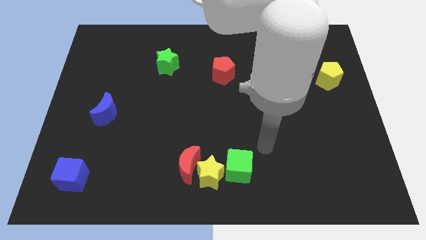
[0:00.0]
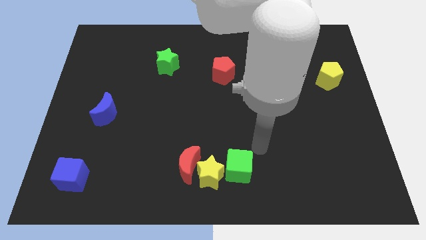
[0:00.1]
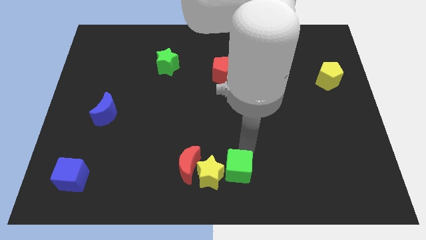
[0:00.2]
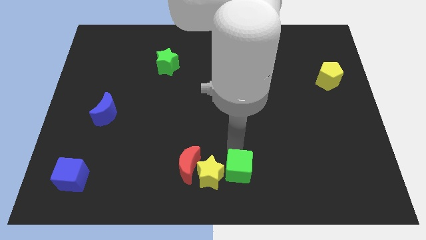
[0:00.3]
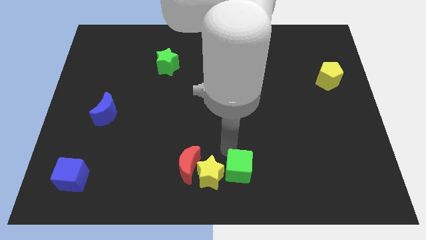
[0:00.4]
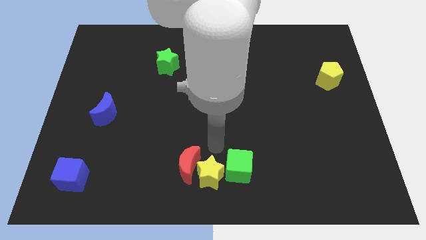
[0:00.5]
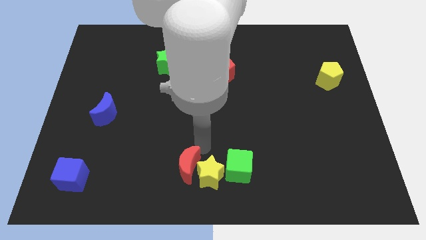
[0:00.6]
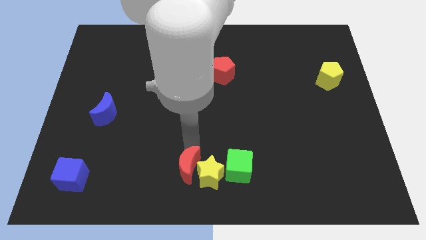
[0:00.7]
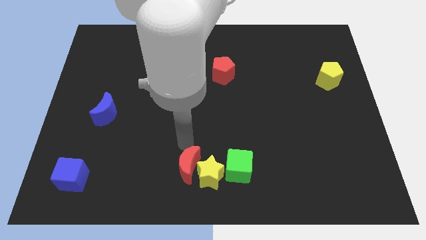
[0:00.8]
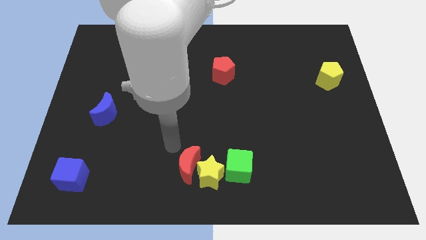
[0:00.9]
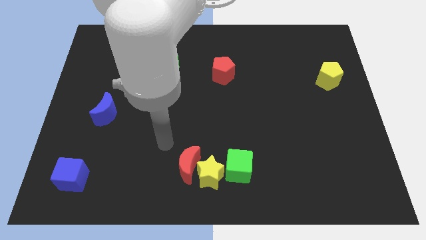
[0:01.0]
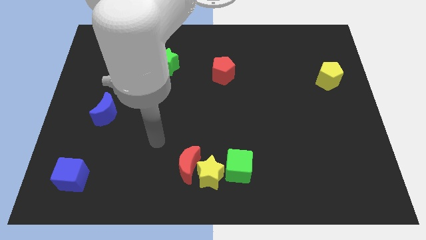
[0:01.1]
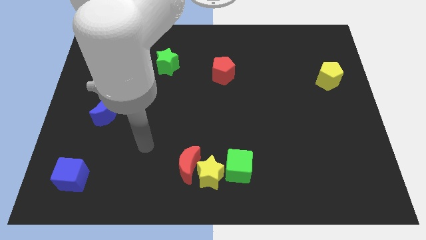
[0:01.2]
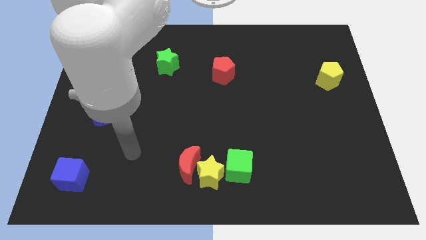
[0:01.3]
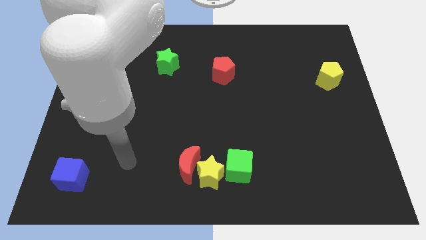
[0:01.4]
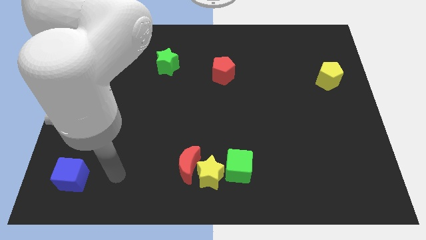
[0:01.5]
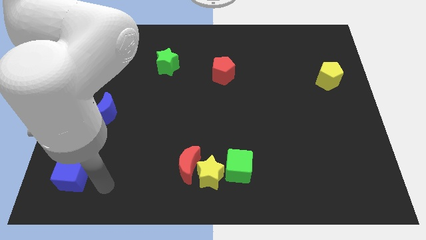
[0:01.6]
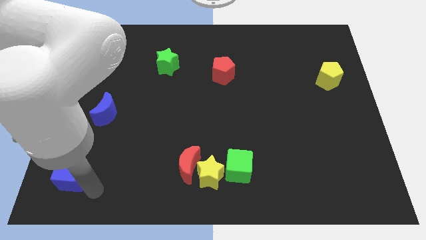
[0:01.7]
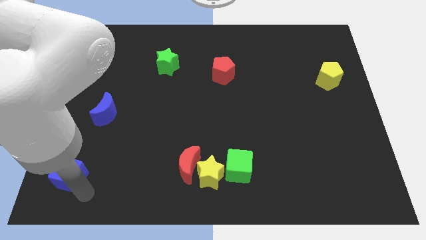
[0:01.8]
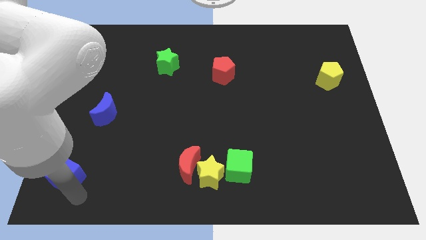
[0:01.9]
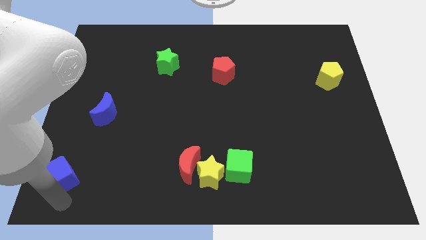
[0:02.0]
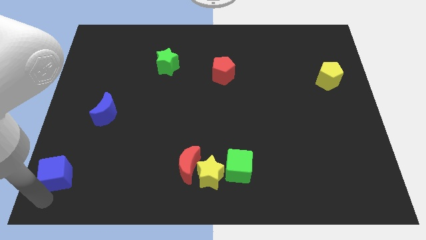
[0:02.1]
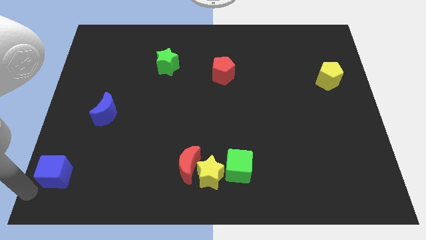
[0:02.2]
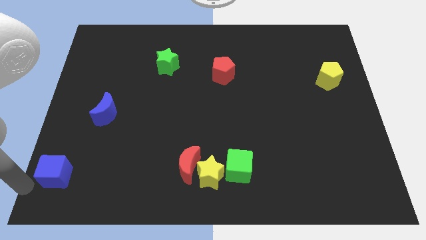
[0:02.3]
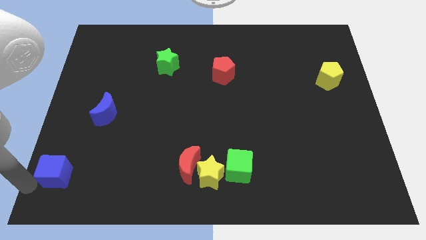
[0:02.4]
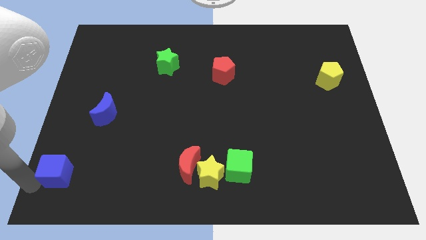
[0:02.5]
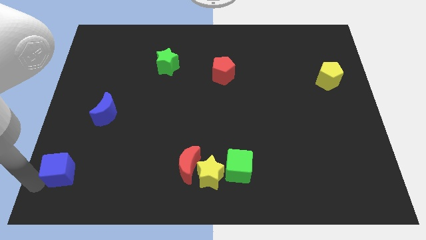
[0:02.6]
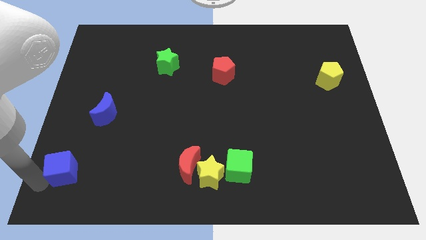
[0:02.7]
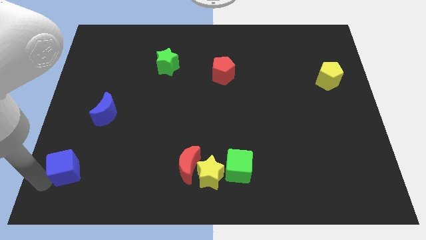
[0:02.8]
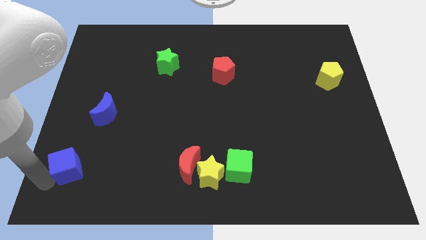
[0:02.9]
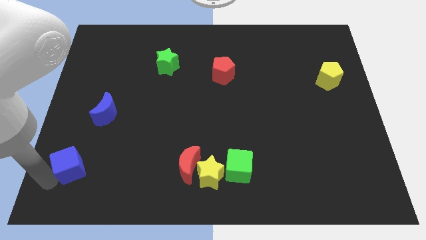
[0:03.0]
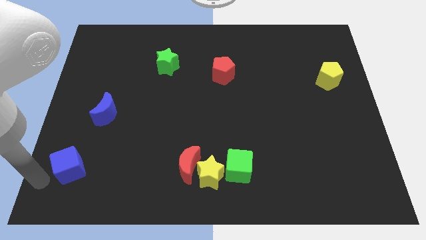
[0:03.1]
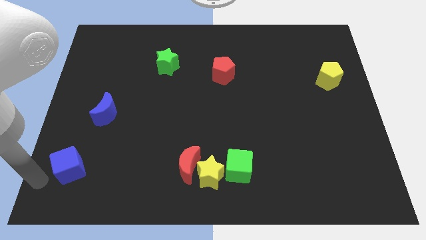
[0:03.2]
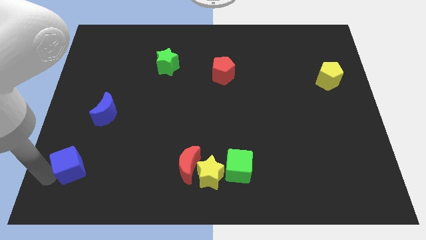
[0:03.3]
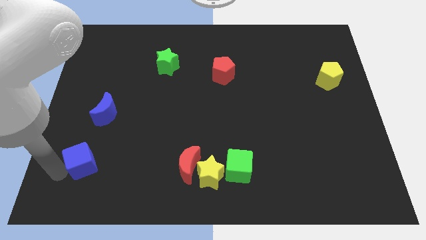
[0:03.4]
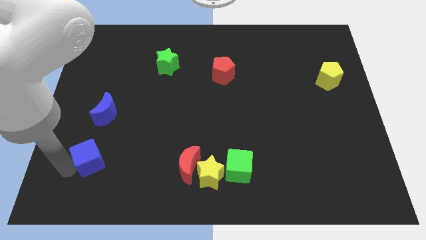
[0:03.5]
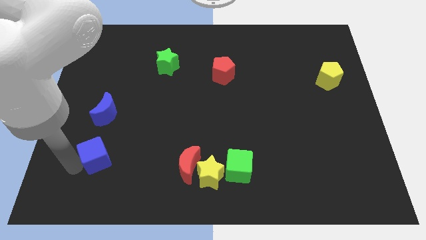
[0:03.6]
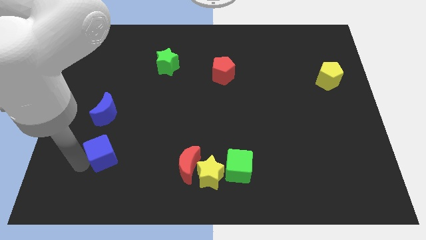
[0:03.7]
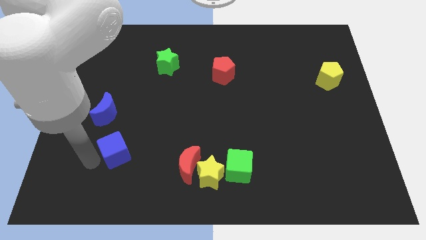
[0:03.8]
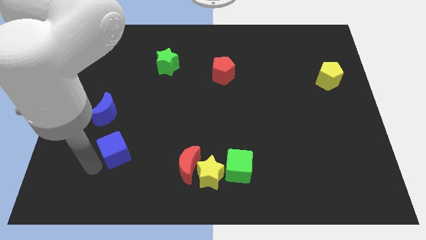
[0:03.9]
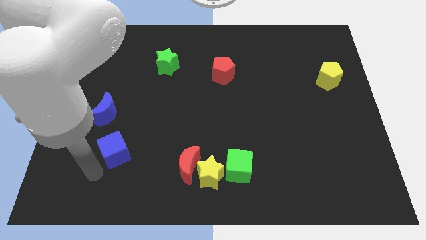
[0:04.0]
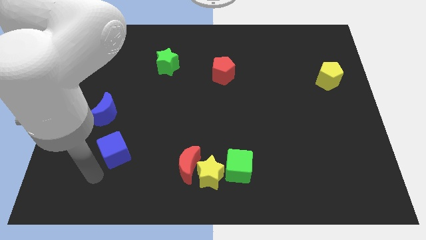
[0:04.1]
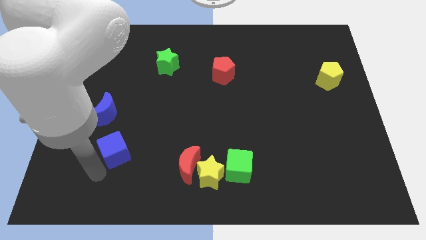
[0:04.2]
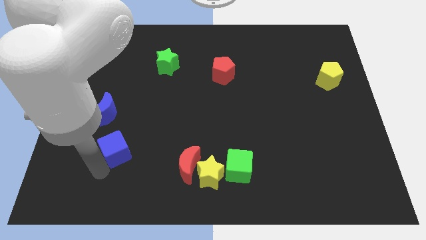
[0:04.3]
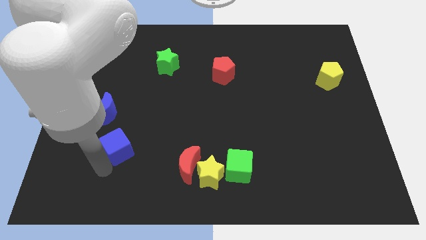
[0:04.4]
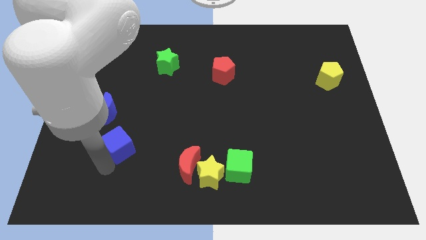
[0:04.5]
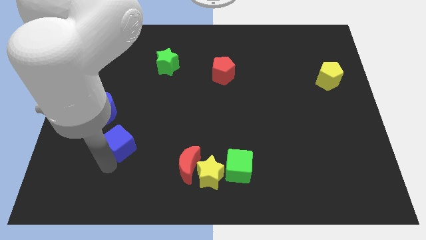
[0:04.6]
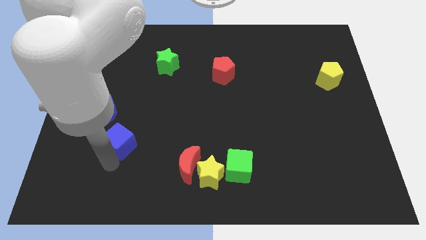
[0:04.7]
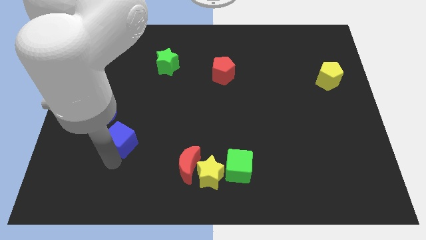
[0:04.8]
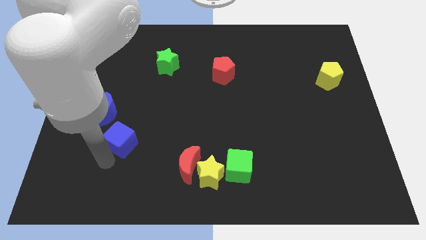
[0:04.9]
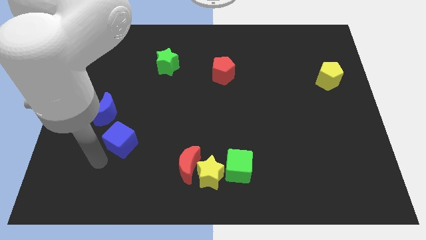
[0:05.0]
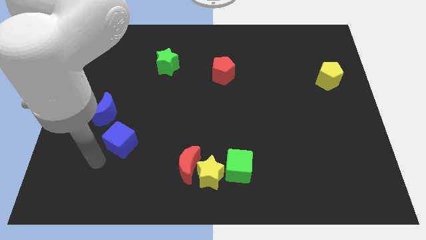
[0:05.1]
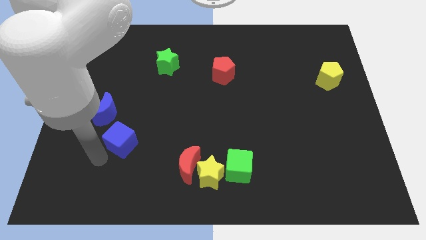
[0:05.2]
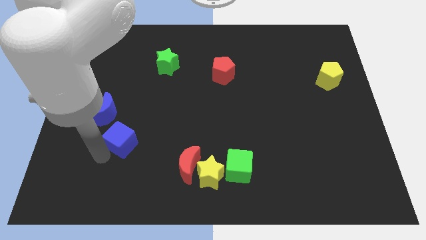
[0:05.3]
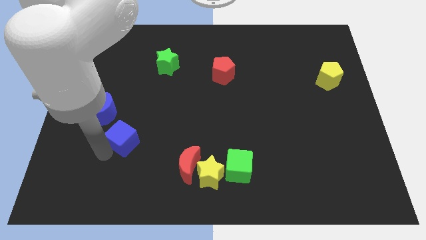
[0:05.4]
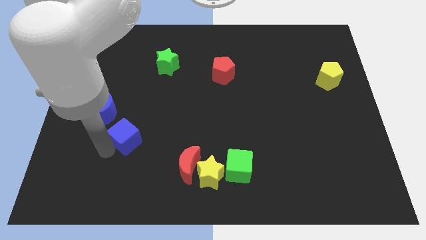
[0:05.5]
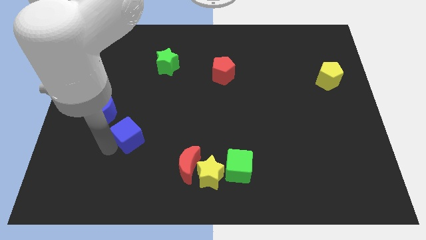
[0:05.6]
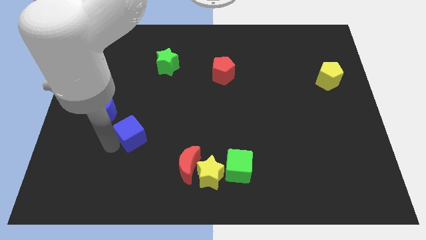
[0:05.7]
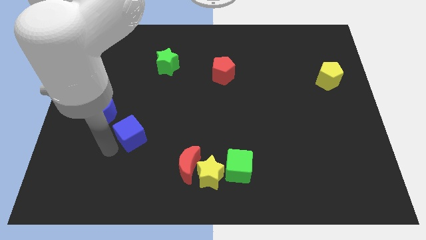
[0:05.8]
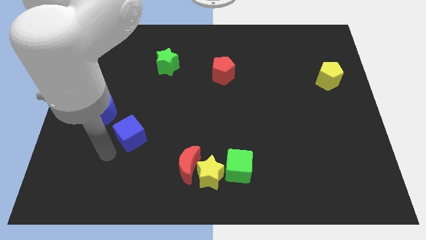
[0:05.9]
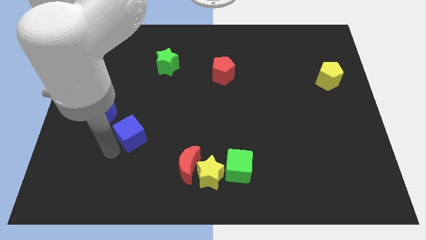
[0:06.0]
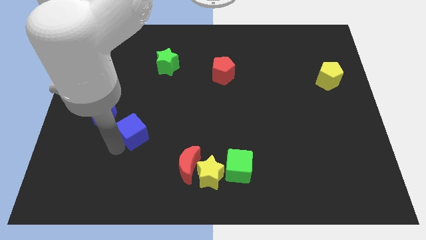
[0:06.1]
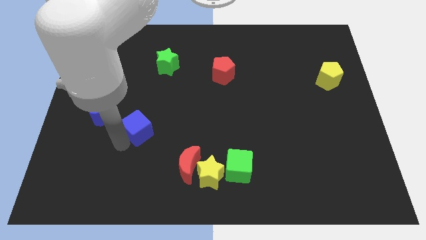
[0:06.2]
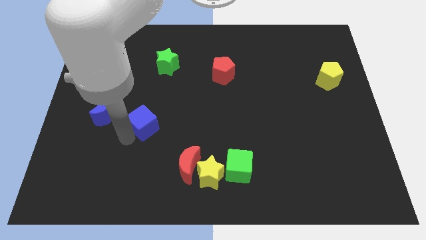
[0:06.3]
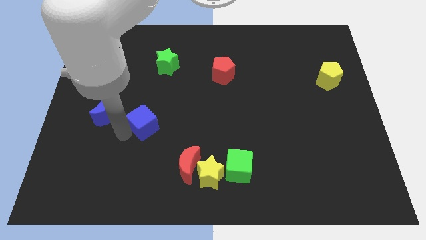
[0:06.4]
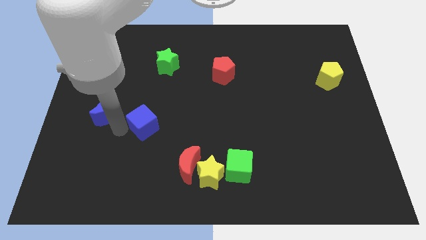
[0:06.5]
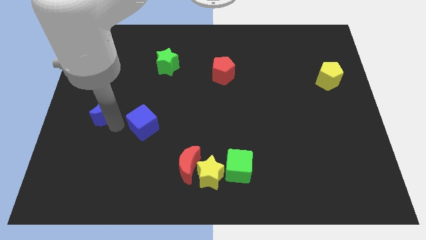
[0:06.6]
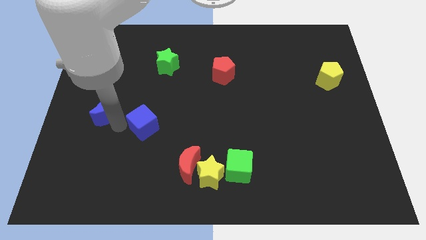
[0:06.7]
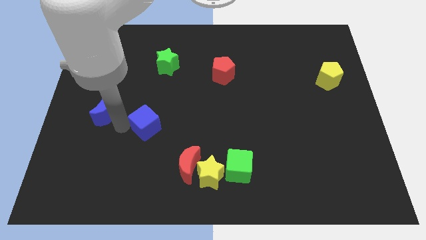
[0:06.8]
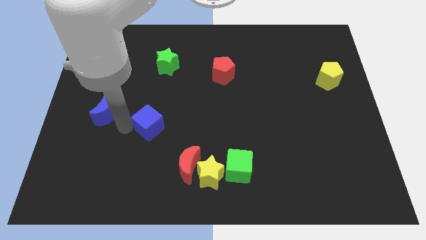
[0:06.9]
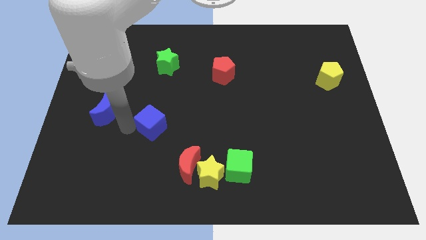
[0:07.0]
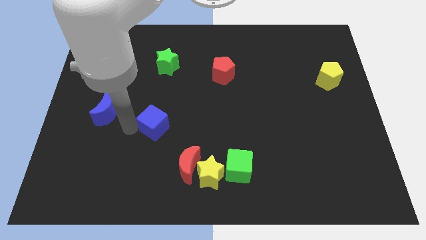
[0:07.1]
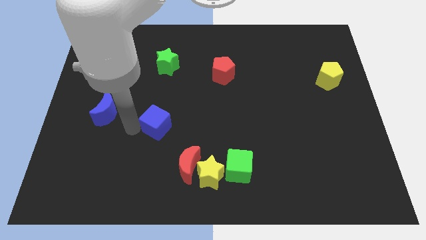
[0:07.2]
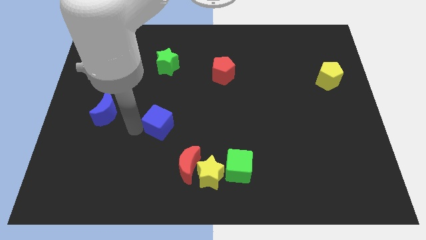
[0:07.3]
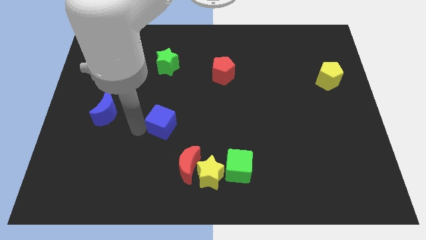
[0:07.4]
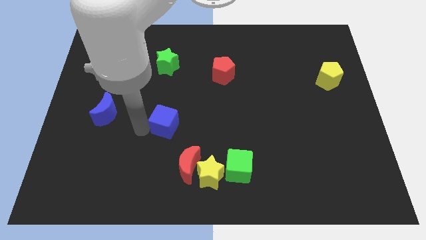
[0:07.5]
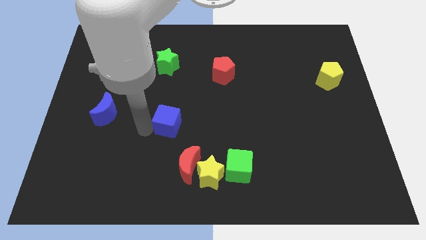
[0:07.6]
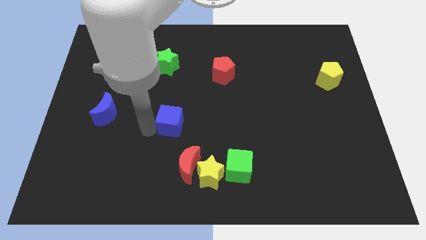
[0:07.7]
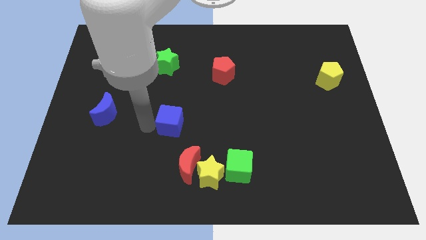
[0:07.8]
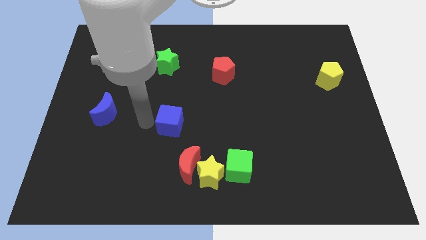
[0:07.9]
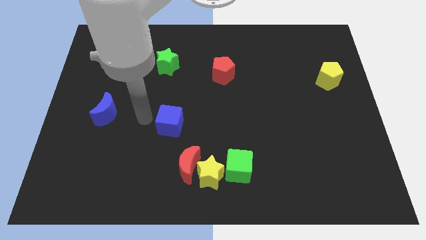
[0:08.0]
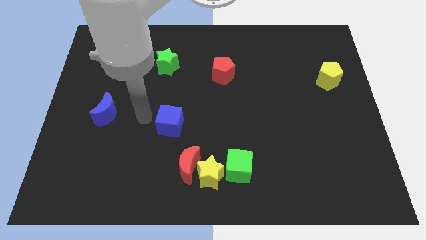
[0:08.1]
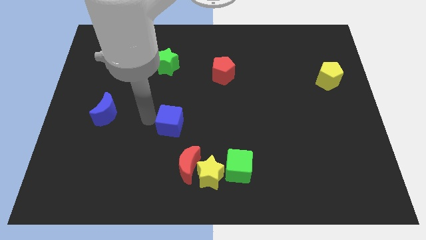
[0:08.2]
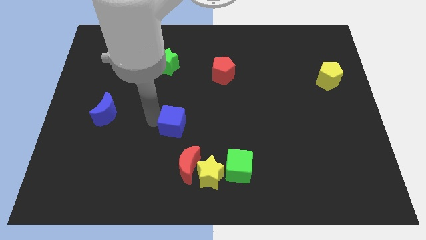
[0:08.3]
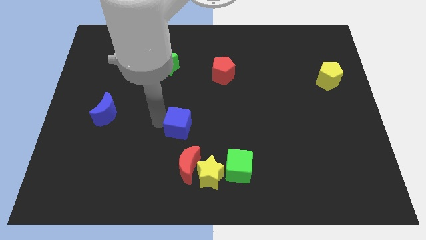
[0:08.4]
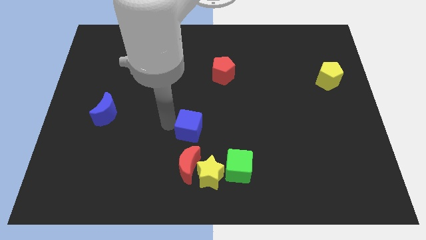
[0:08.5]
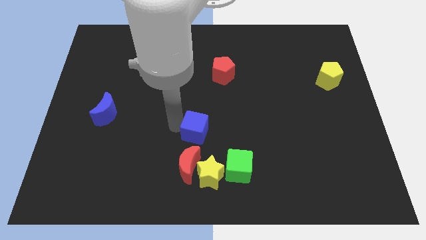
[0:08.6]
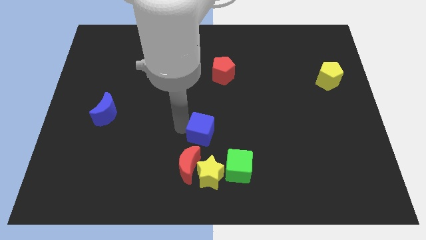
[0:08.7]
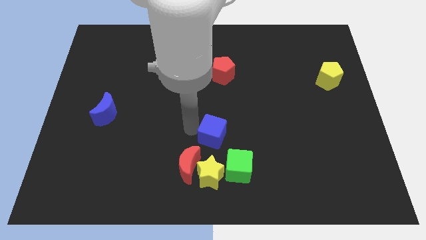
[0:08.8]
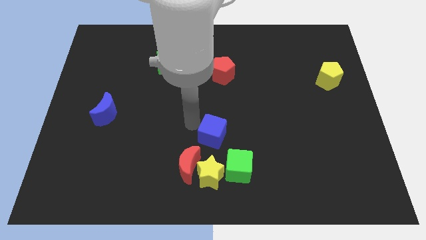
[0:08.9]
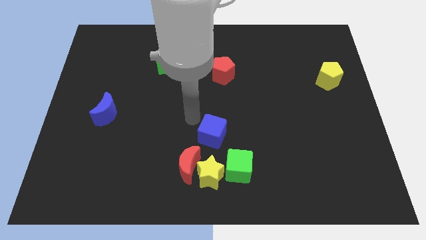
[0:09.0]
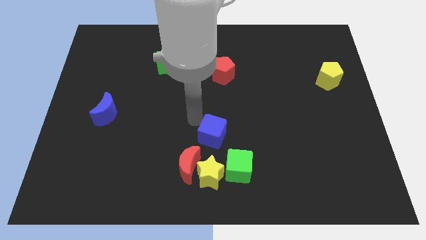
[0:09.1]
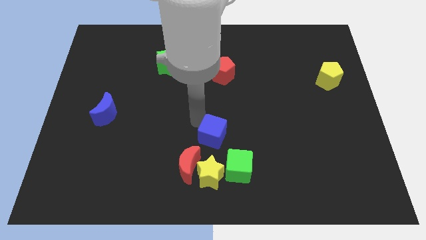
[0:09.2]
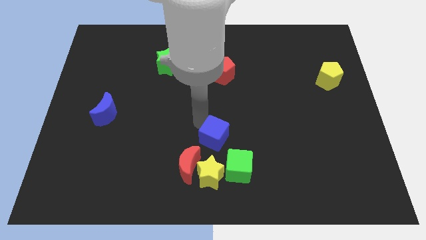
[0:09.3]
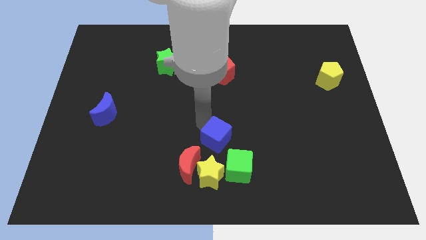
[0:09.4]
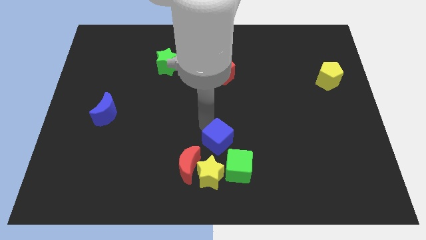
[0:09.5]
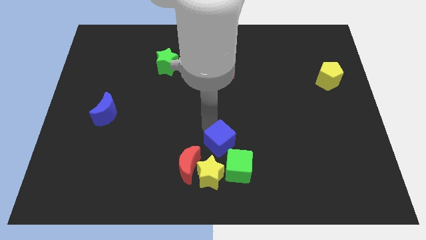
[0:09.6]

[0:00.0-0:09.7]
put the blue cube to the top right of the yellow star
